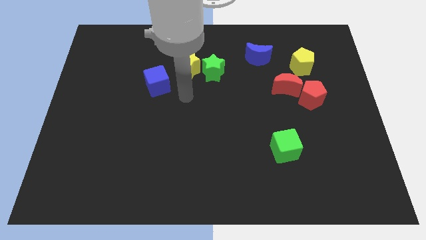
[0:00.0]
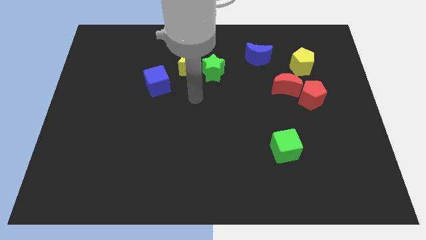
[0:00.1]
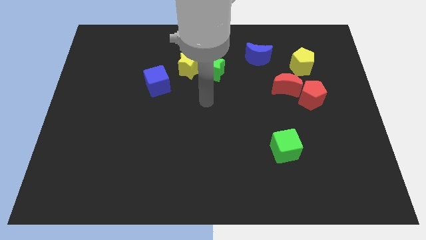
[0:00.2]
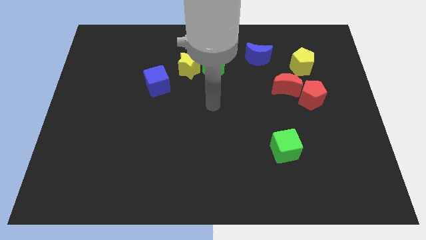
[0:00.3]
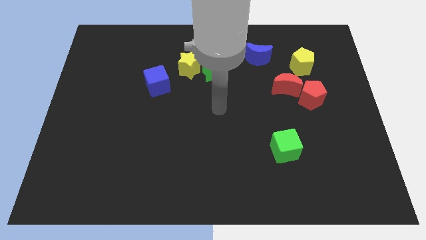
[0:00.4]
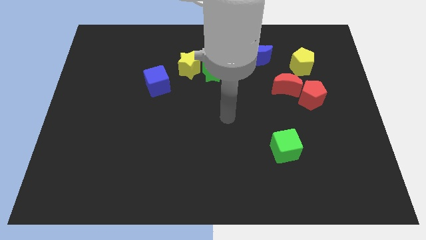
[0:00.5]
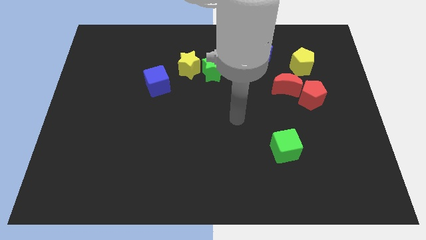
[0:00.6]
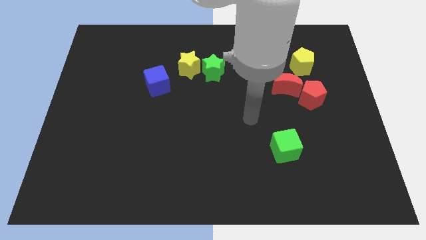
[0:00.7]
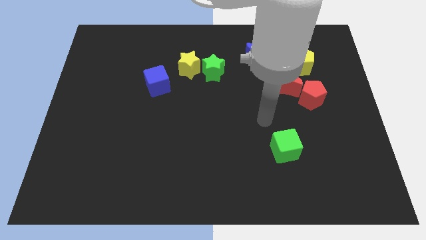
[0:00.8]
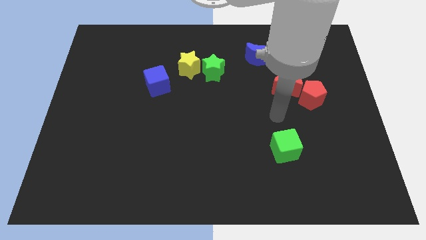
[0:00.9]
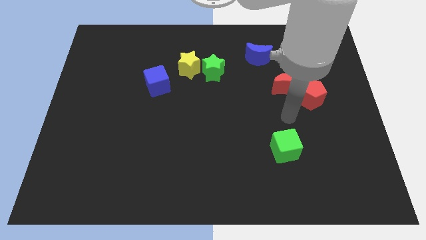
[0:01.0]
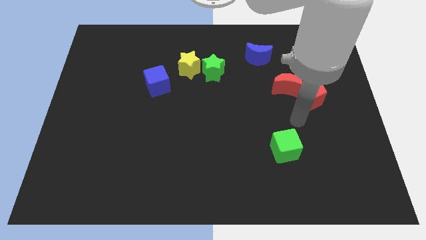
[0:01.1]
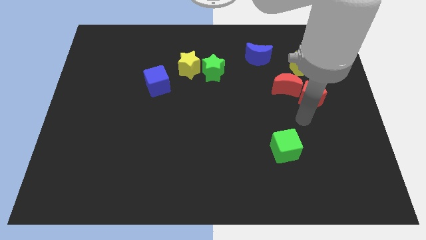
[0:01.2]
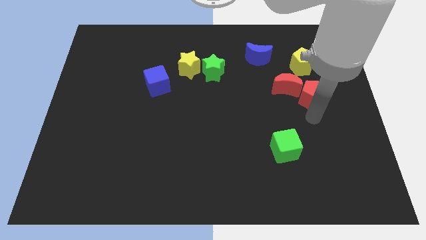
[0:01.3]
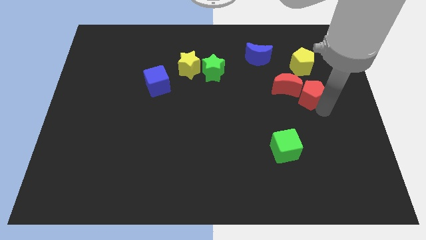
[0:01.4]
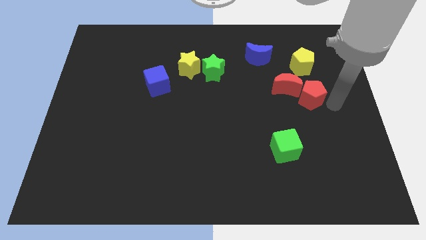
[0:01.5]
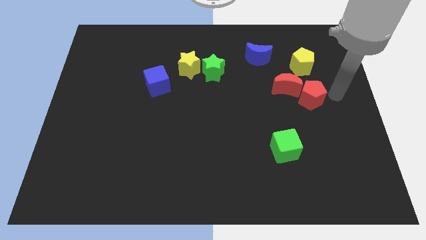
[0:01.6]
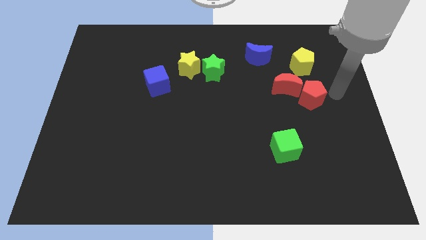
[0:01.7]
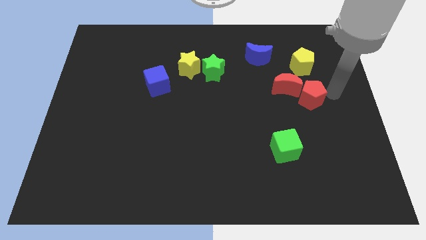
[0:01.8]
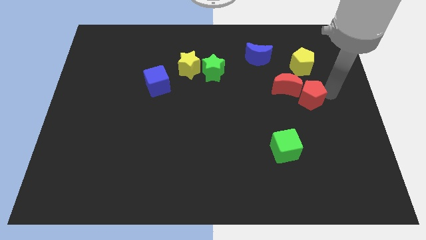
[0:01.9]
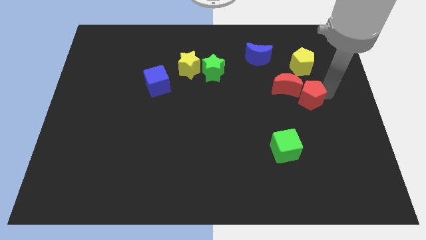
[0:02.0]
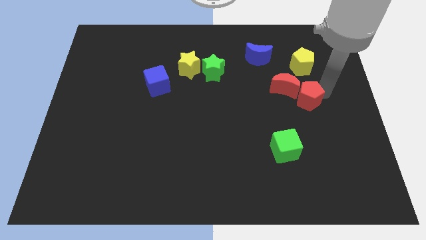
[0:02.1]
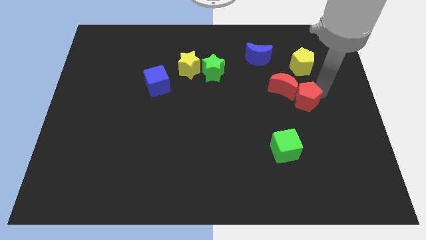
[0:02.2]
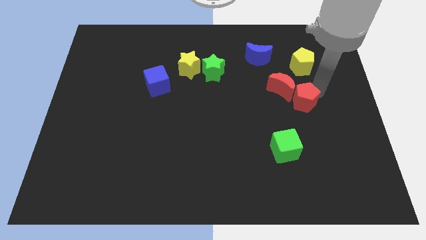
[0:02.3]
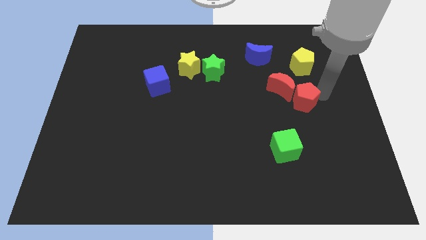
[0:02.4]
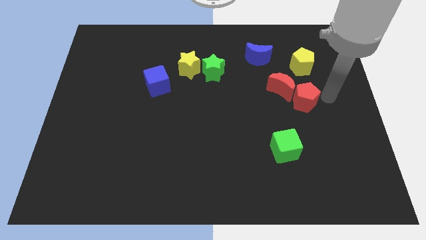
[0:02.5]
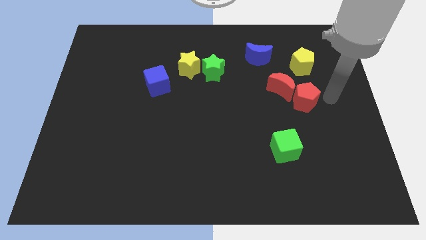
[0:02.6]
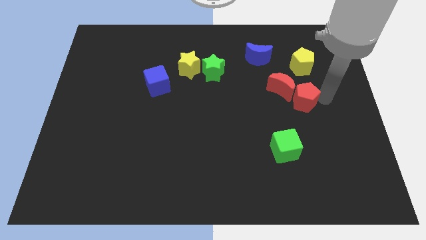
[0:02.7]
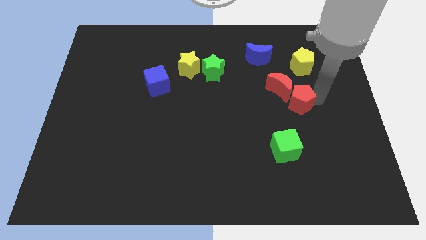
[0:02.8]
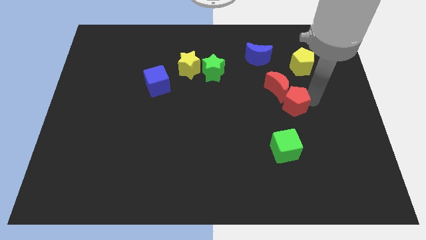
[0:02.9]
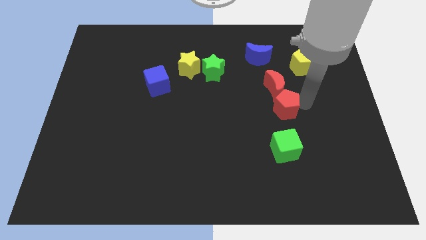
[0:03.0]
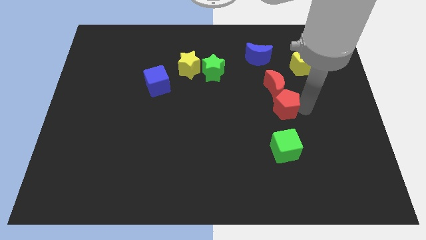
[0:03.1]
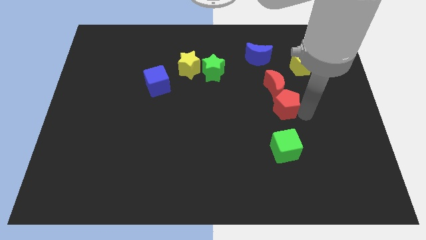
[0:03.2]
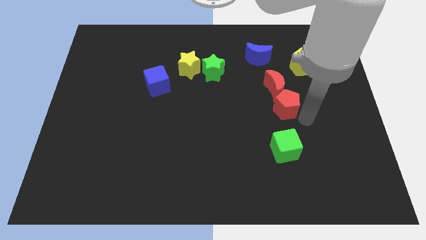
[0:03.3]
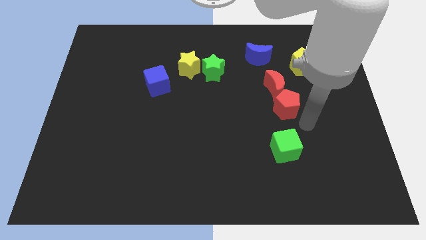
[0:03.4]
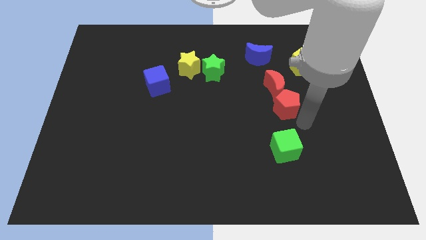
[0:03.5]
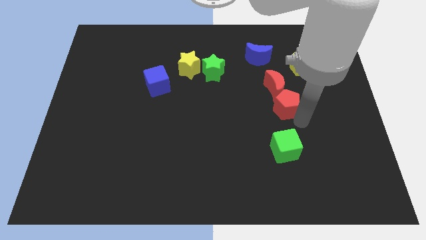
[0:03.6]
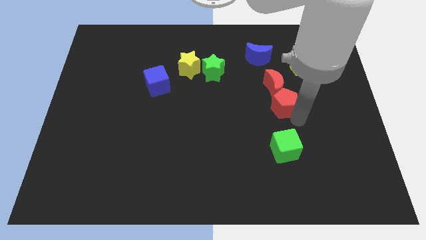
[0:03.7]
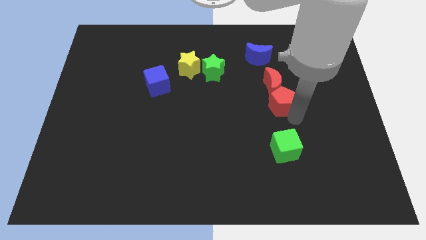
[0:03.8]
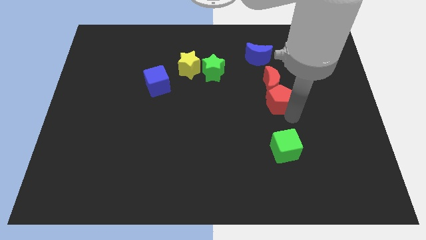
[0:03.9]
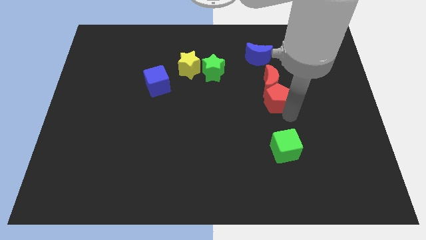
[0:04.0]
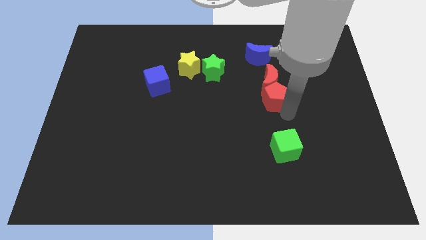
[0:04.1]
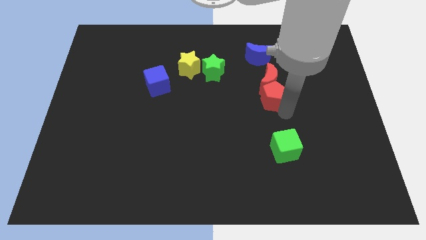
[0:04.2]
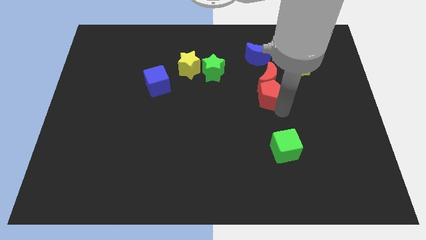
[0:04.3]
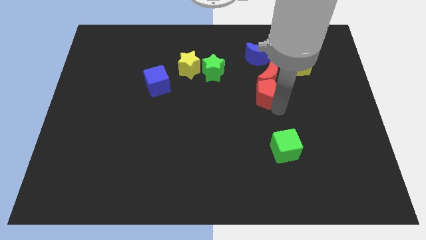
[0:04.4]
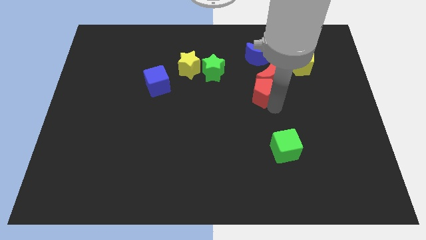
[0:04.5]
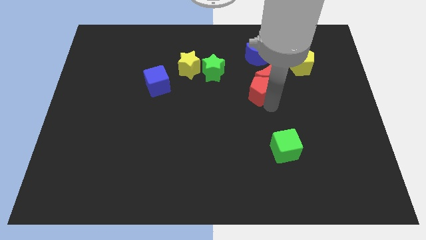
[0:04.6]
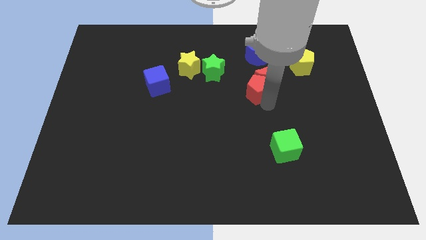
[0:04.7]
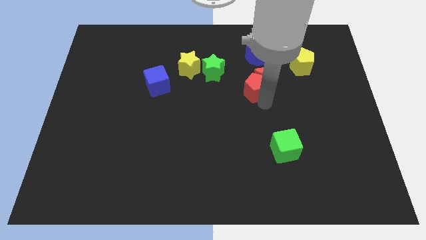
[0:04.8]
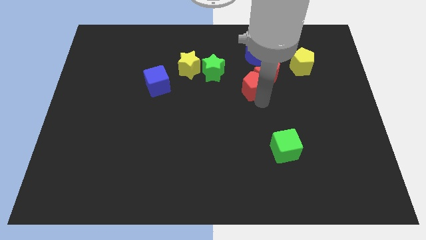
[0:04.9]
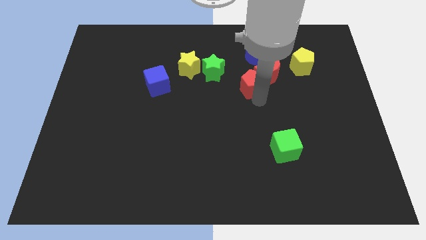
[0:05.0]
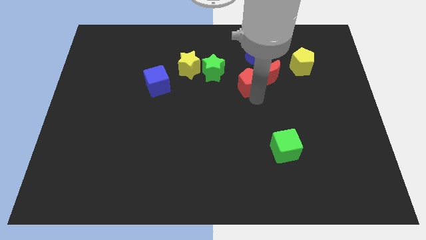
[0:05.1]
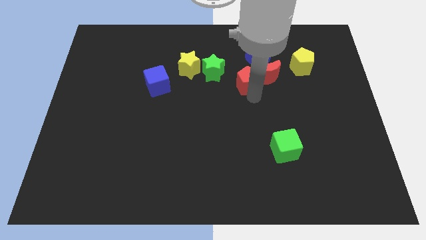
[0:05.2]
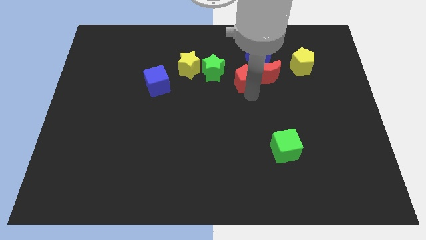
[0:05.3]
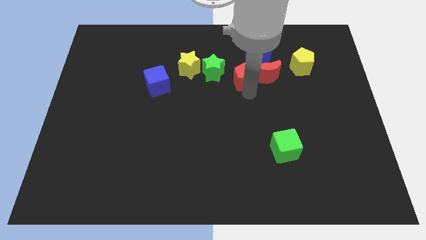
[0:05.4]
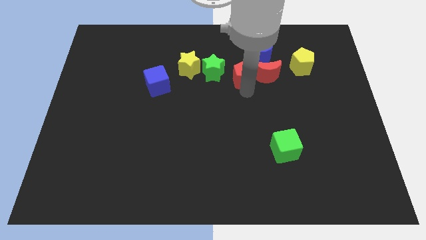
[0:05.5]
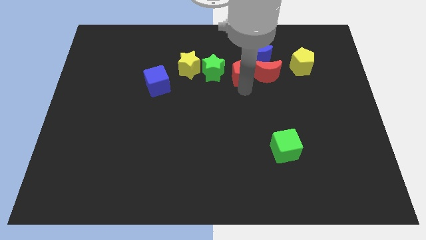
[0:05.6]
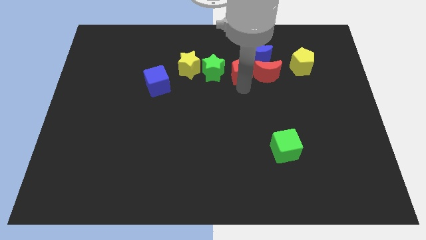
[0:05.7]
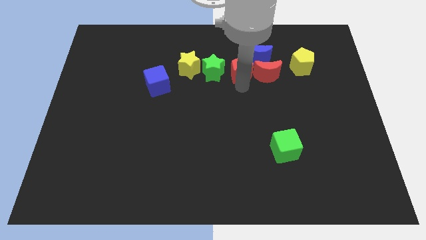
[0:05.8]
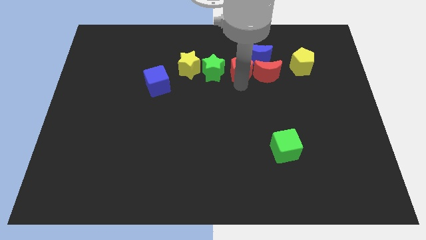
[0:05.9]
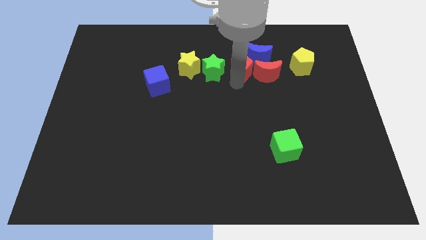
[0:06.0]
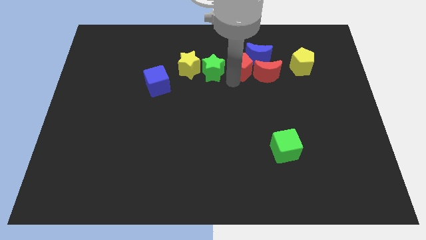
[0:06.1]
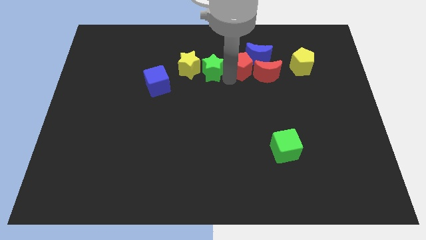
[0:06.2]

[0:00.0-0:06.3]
push the red pentagon close to the blue moon
